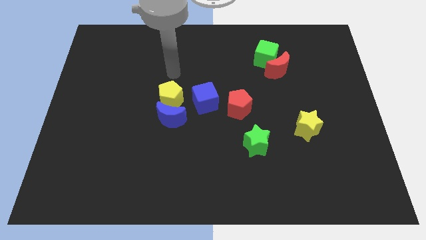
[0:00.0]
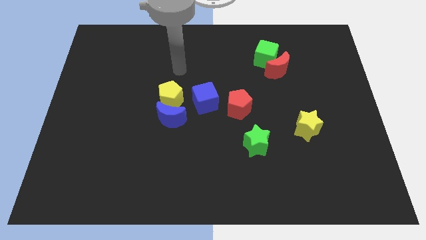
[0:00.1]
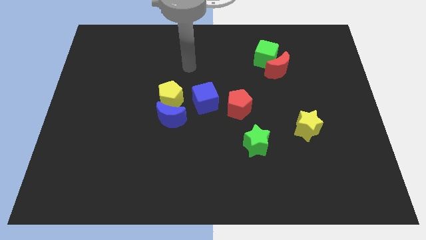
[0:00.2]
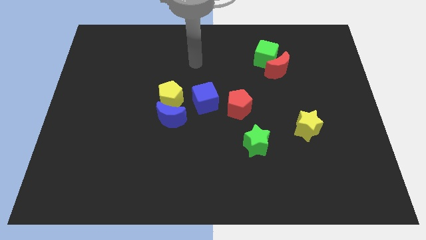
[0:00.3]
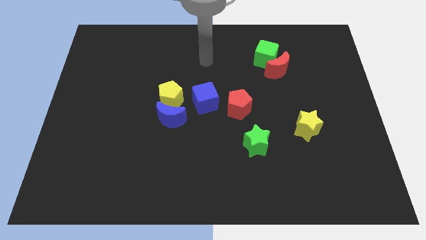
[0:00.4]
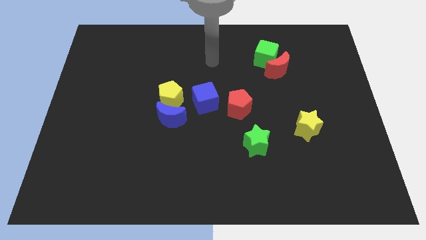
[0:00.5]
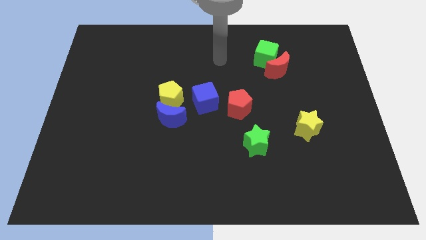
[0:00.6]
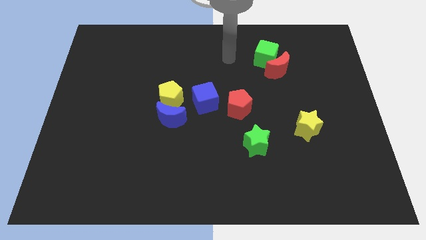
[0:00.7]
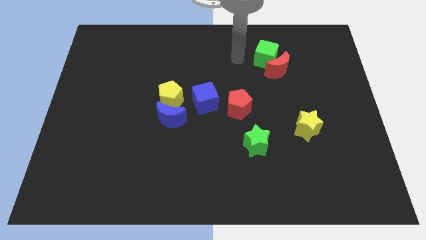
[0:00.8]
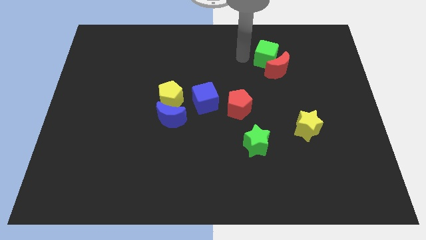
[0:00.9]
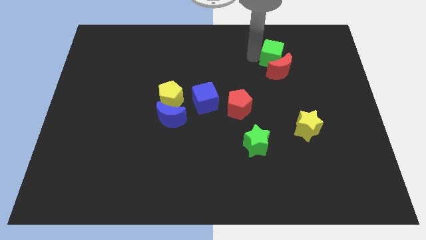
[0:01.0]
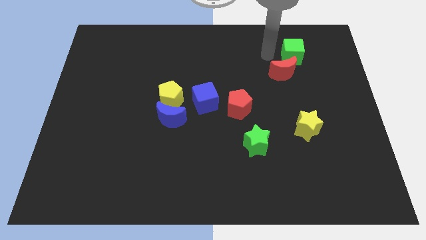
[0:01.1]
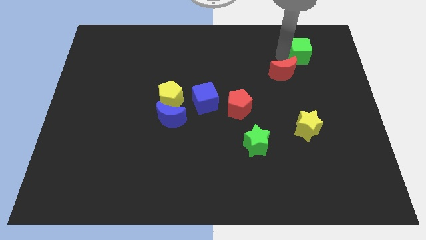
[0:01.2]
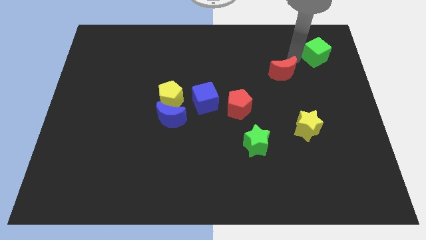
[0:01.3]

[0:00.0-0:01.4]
pull the red moon apart from the green cube

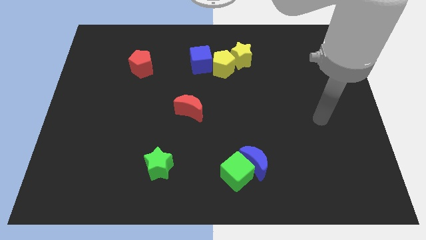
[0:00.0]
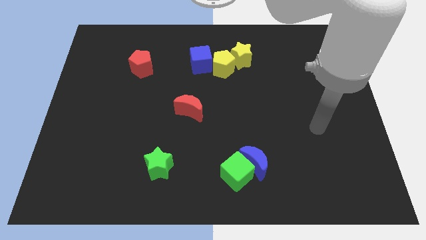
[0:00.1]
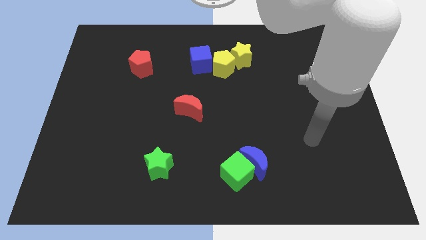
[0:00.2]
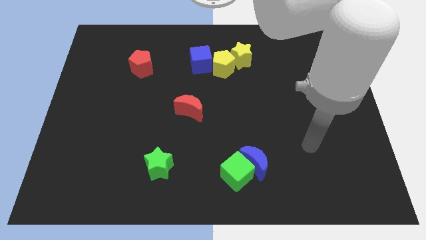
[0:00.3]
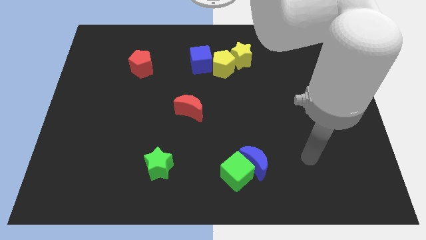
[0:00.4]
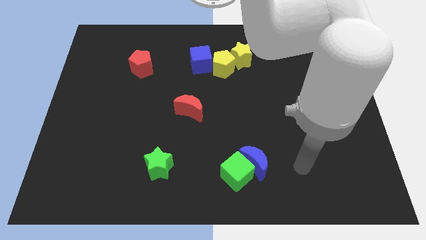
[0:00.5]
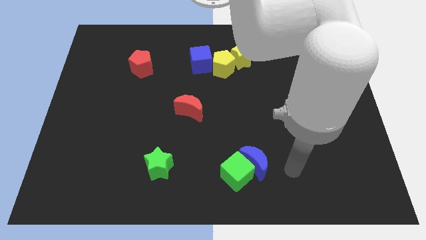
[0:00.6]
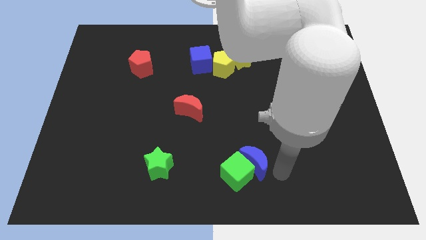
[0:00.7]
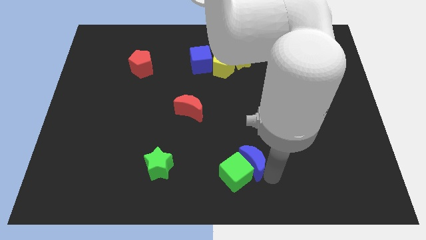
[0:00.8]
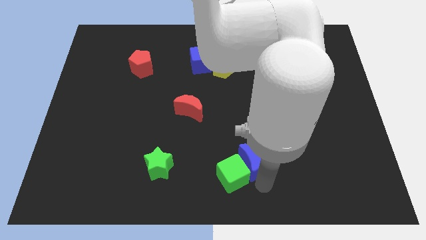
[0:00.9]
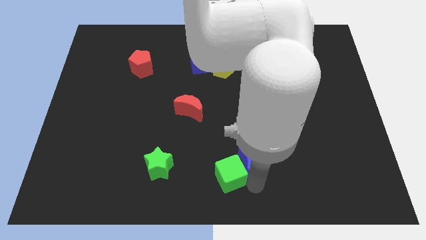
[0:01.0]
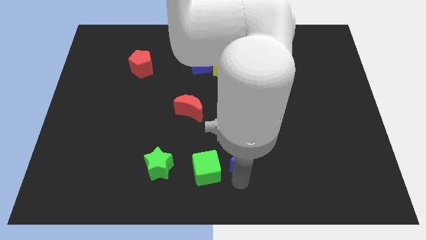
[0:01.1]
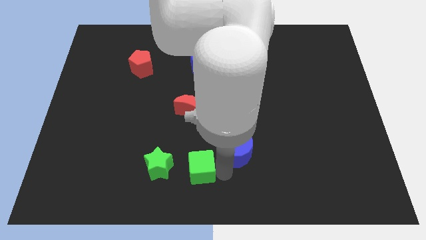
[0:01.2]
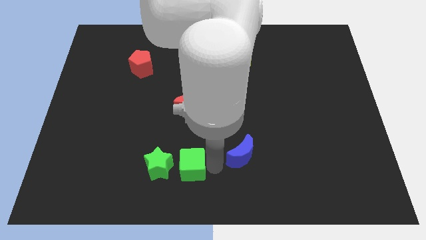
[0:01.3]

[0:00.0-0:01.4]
move the blue moon away from the green cube

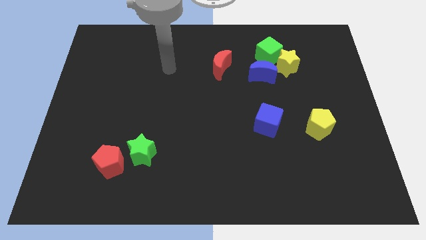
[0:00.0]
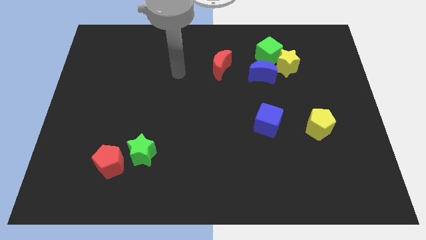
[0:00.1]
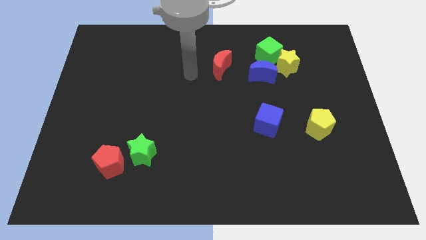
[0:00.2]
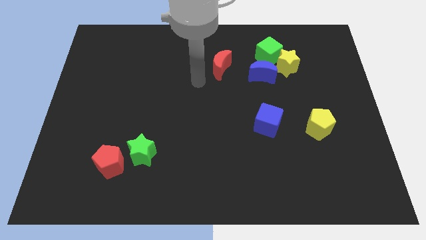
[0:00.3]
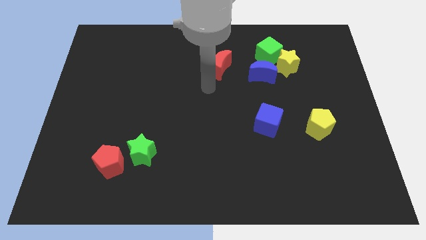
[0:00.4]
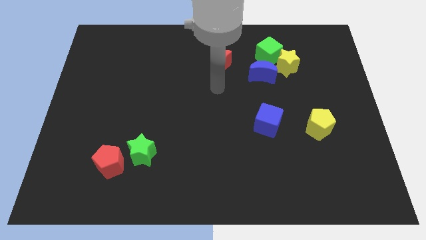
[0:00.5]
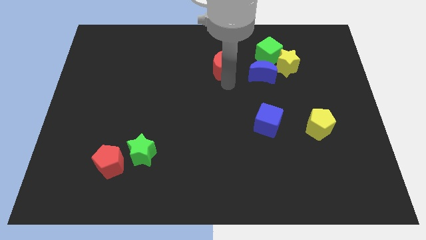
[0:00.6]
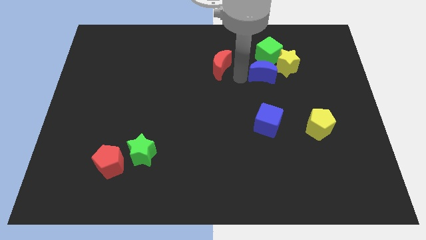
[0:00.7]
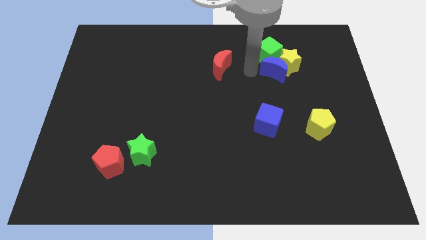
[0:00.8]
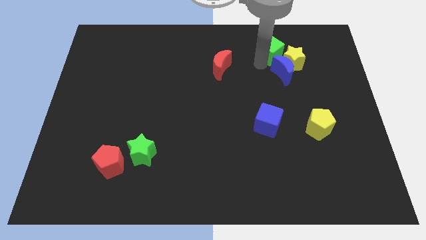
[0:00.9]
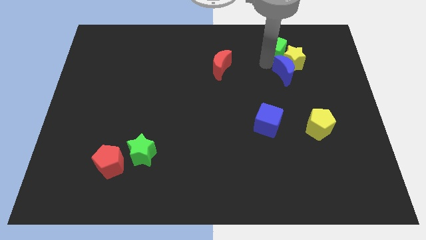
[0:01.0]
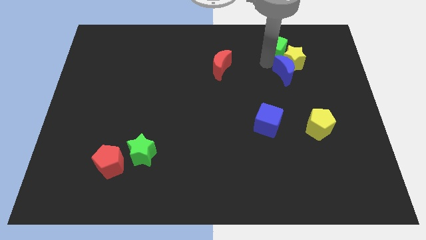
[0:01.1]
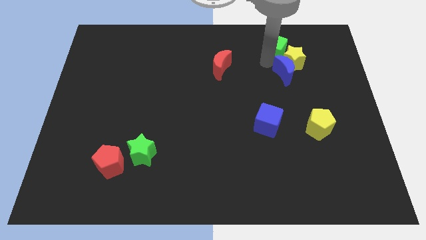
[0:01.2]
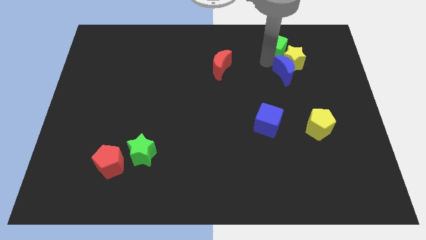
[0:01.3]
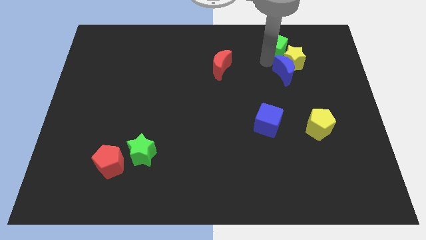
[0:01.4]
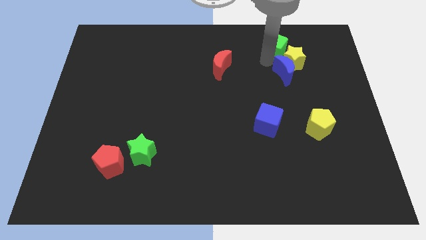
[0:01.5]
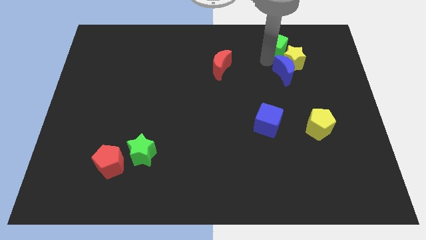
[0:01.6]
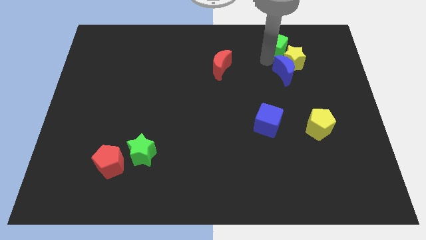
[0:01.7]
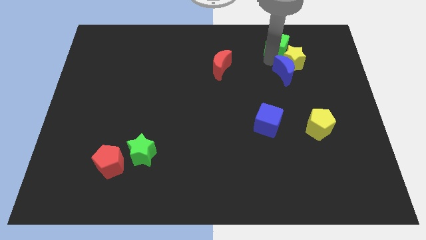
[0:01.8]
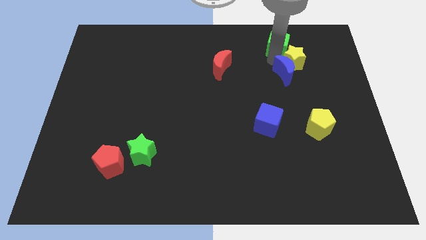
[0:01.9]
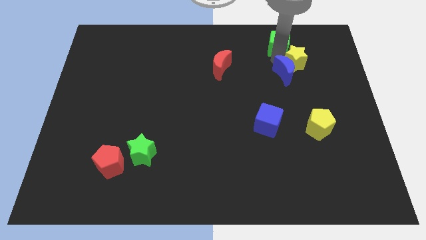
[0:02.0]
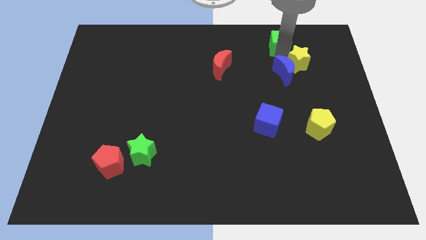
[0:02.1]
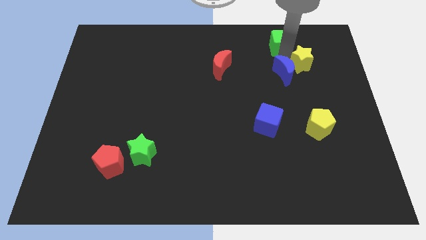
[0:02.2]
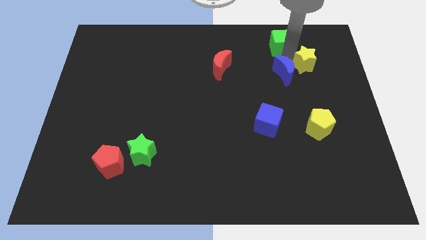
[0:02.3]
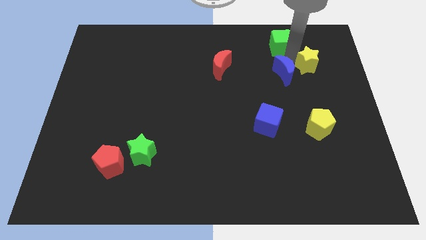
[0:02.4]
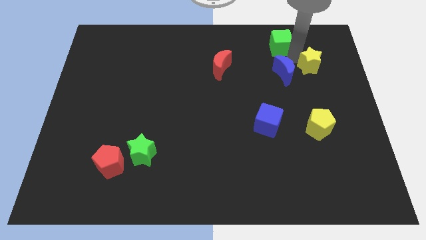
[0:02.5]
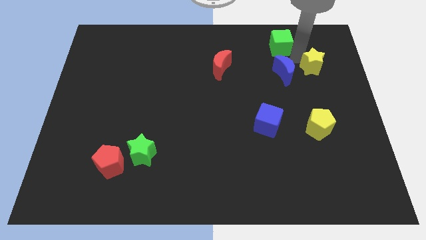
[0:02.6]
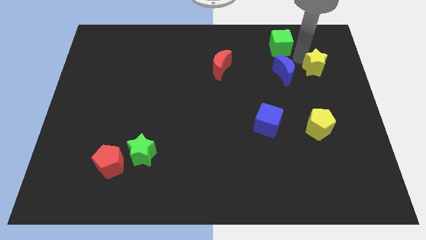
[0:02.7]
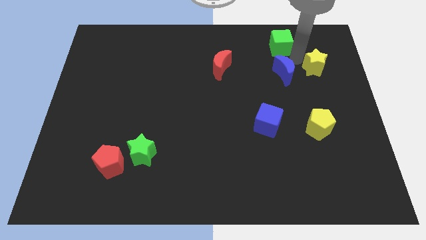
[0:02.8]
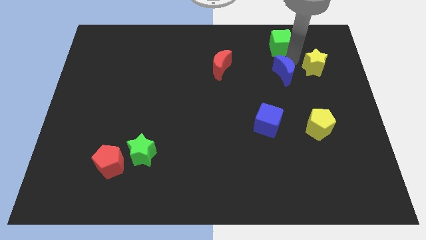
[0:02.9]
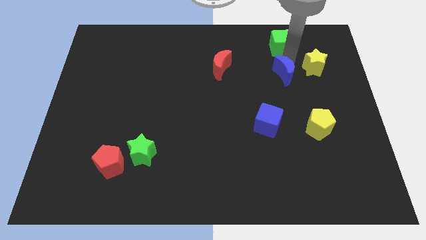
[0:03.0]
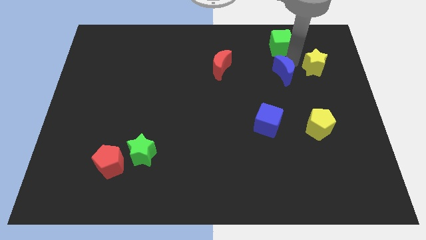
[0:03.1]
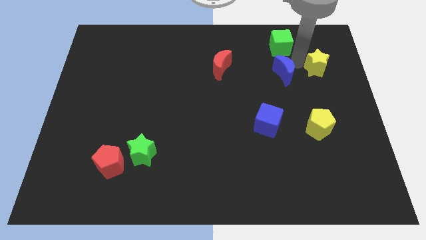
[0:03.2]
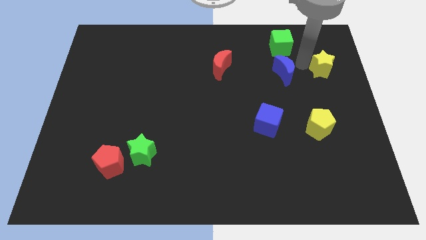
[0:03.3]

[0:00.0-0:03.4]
pull the yellow star apart from the green cube and blue moon

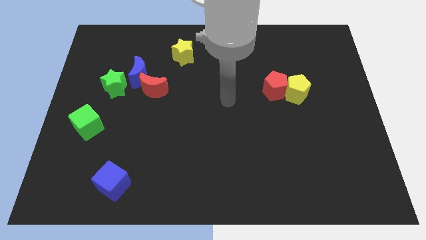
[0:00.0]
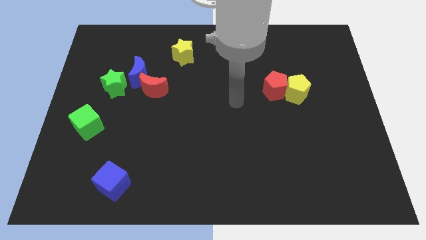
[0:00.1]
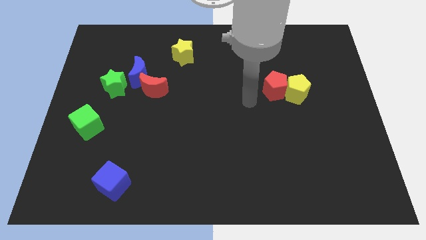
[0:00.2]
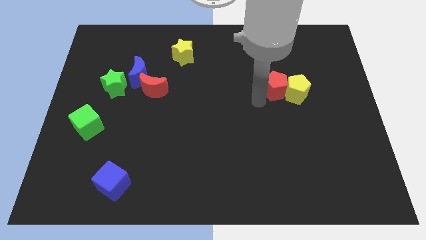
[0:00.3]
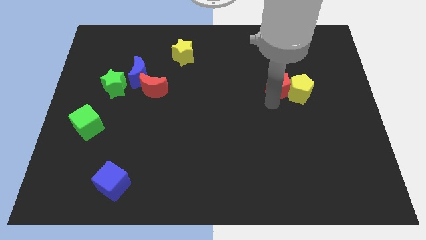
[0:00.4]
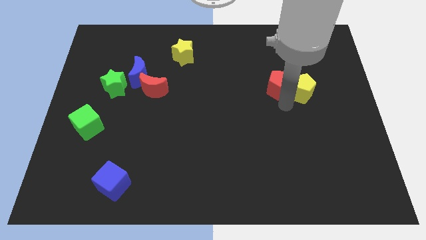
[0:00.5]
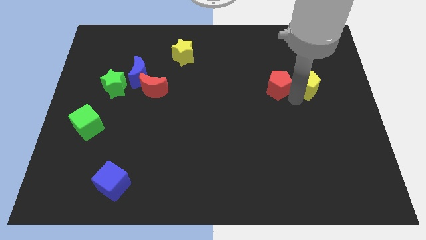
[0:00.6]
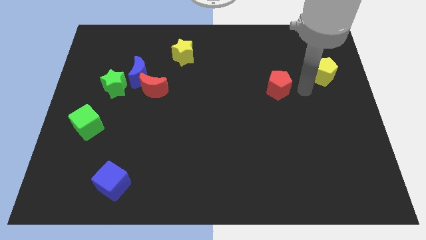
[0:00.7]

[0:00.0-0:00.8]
move the red pentagon away from the yellow pentagon

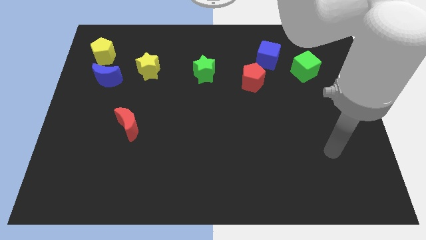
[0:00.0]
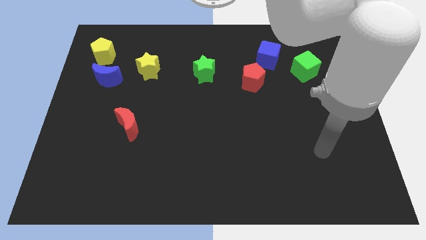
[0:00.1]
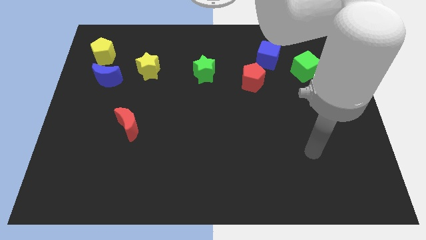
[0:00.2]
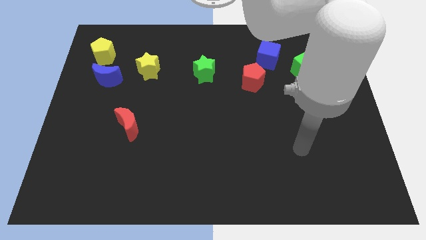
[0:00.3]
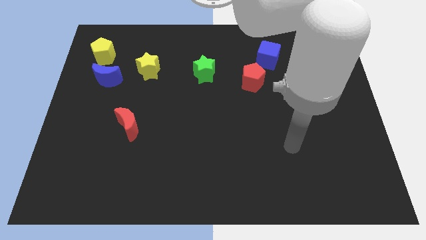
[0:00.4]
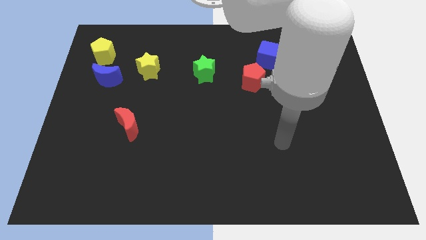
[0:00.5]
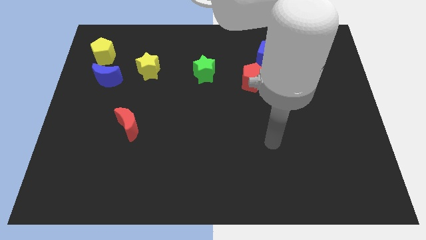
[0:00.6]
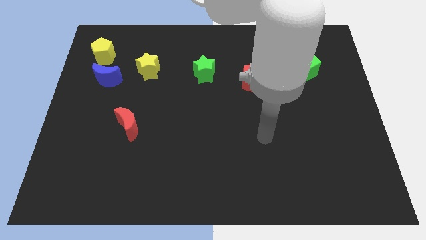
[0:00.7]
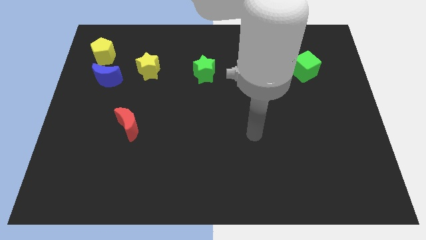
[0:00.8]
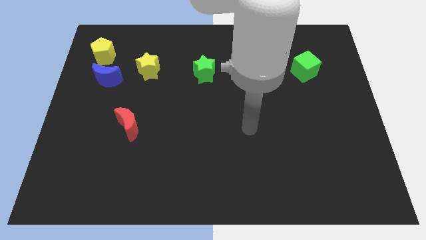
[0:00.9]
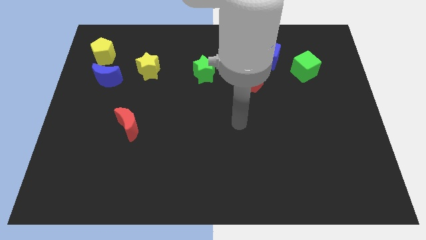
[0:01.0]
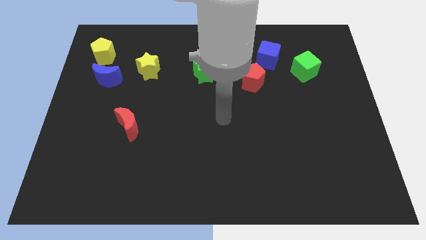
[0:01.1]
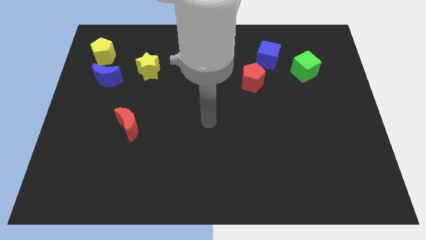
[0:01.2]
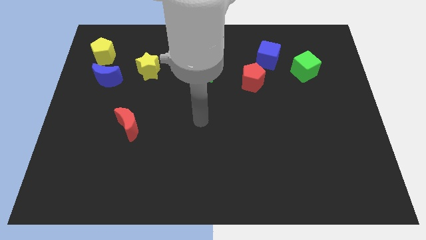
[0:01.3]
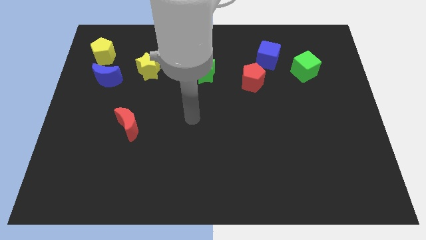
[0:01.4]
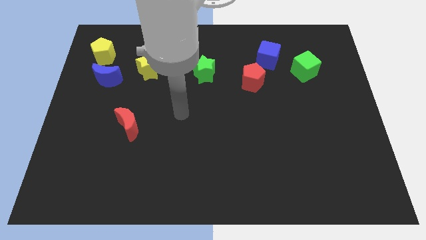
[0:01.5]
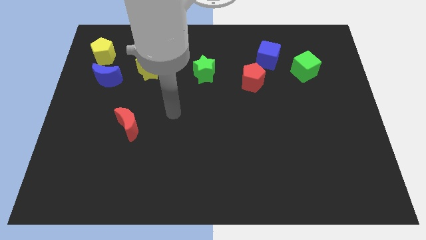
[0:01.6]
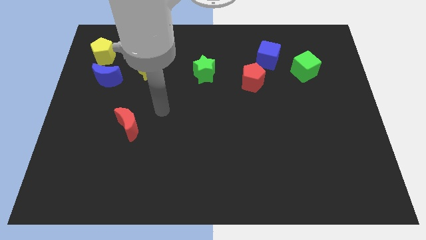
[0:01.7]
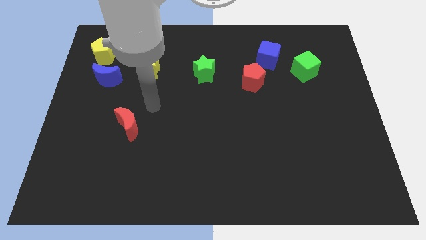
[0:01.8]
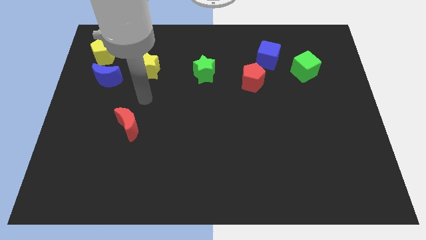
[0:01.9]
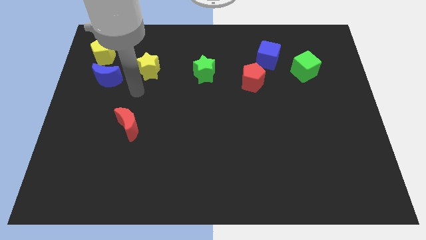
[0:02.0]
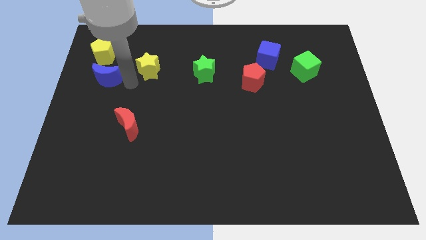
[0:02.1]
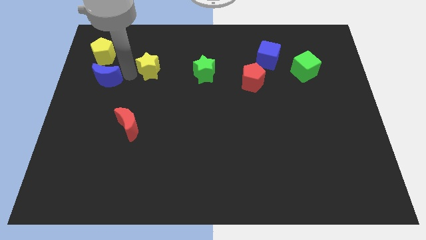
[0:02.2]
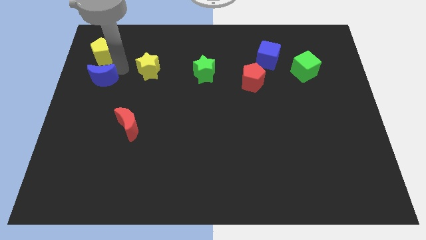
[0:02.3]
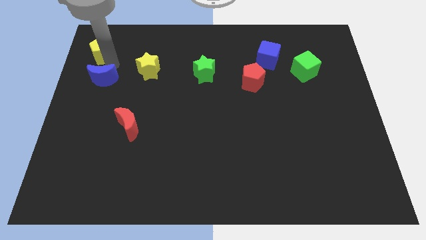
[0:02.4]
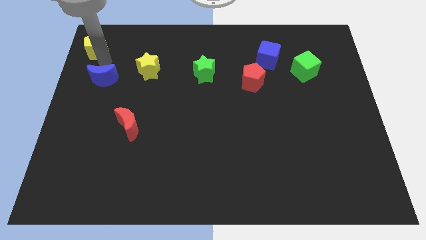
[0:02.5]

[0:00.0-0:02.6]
pull the blue moon apart from the yellow pentagon
